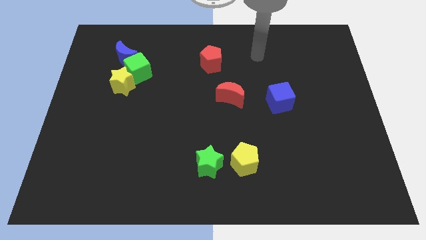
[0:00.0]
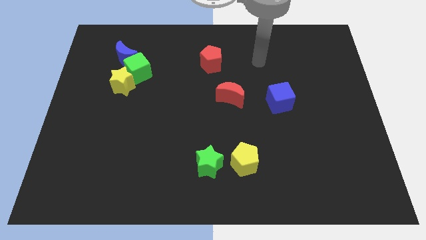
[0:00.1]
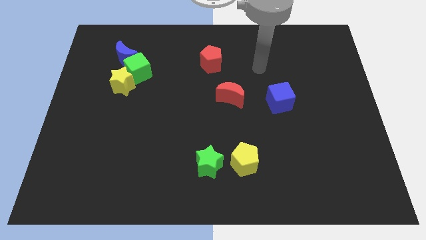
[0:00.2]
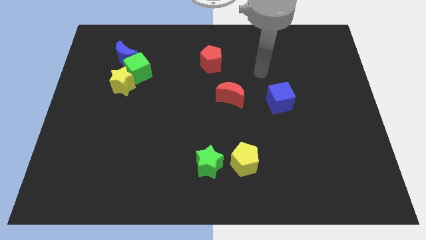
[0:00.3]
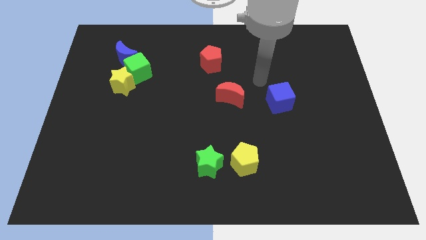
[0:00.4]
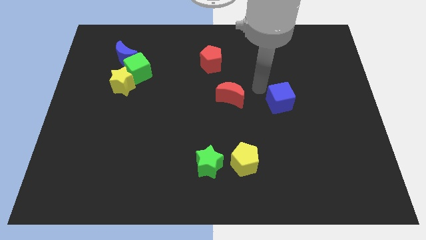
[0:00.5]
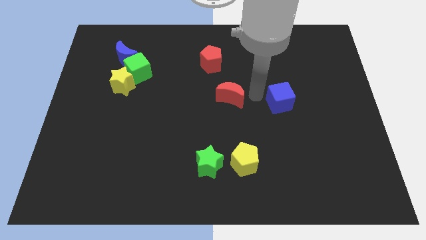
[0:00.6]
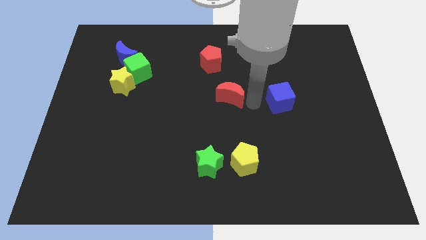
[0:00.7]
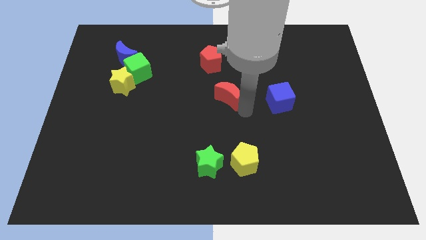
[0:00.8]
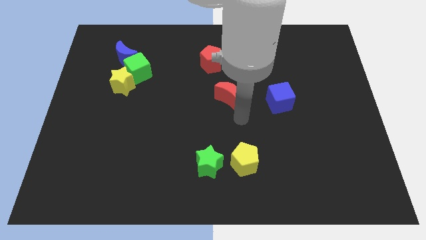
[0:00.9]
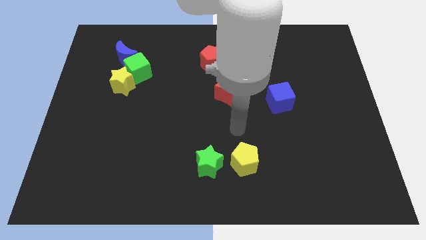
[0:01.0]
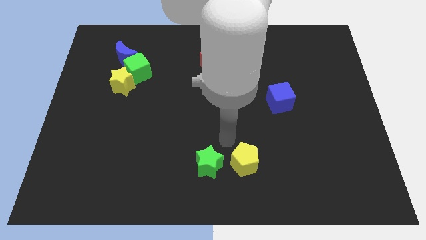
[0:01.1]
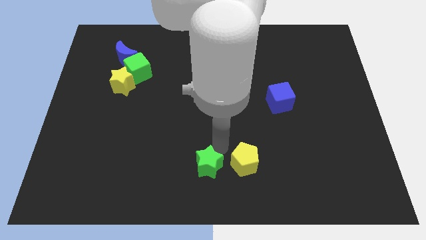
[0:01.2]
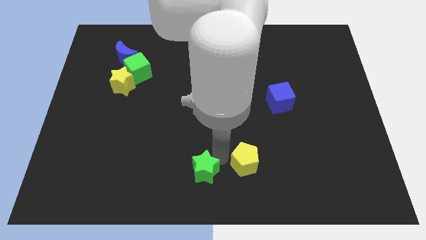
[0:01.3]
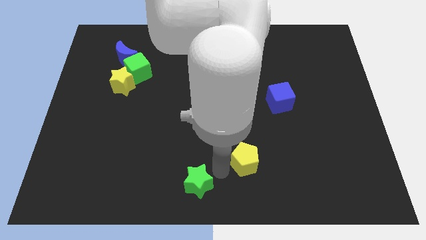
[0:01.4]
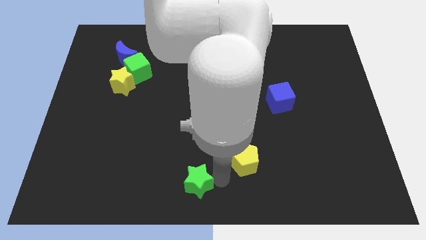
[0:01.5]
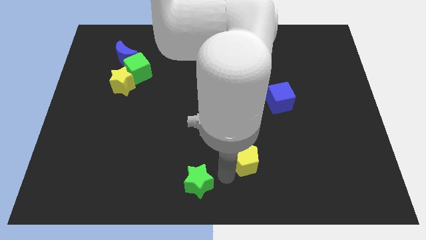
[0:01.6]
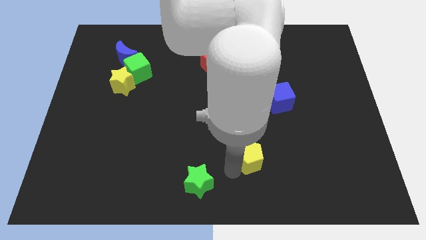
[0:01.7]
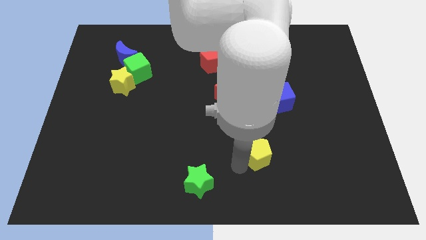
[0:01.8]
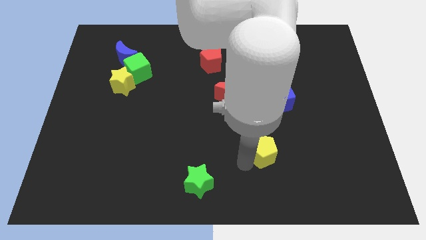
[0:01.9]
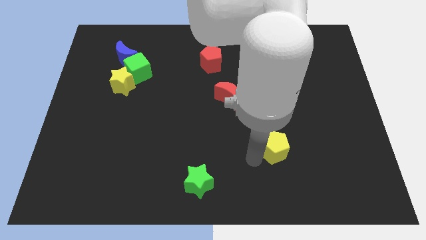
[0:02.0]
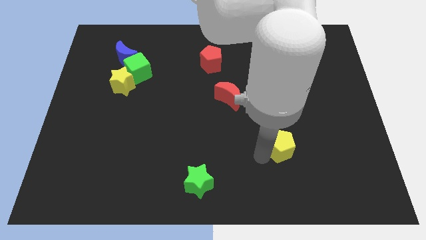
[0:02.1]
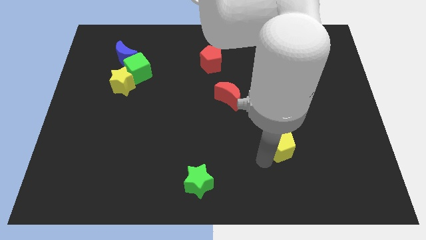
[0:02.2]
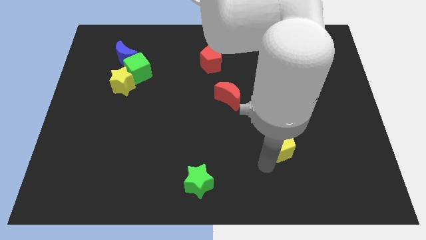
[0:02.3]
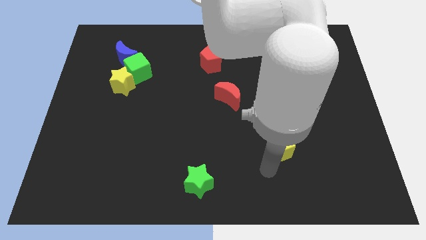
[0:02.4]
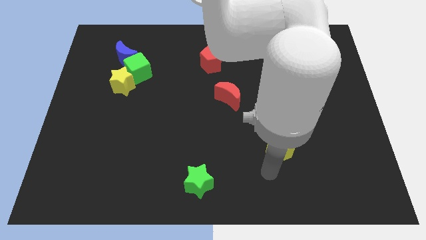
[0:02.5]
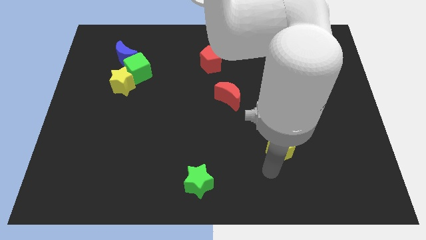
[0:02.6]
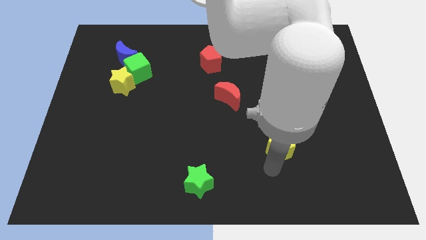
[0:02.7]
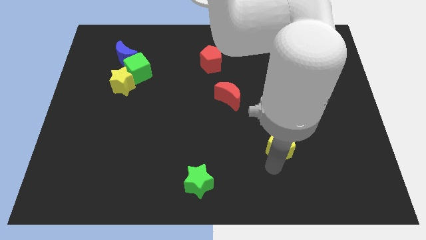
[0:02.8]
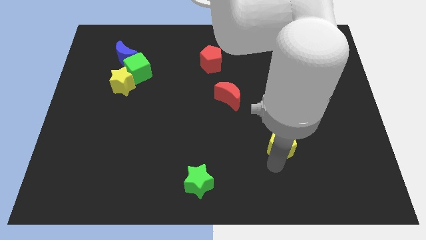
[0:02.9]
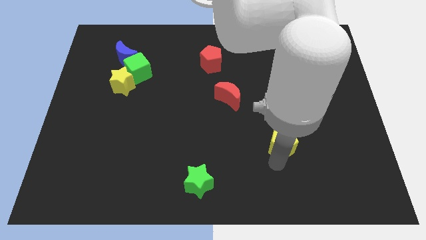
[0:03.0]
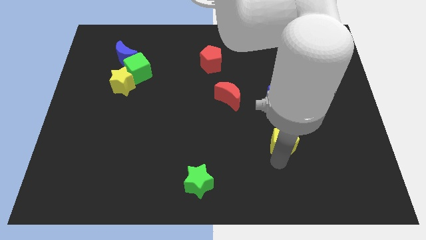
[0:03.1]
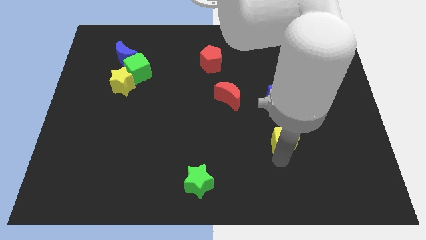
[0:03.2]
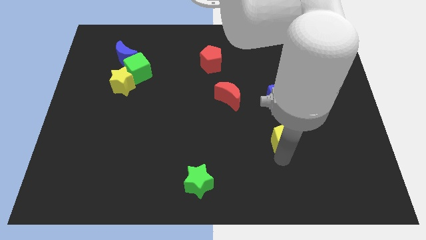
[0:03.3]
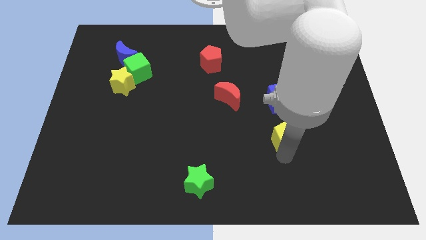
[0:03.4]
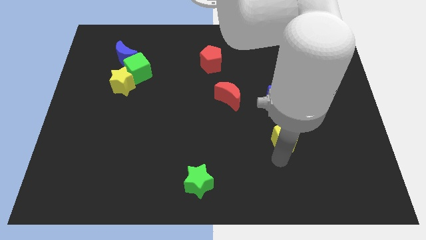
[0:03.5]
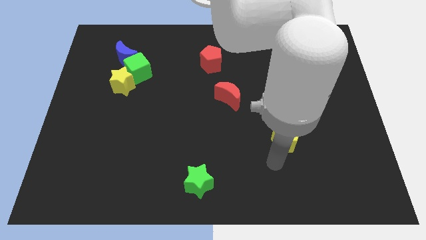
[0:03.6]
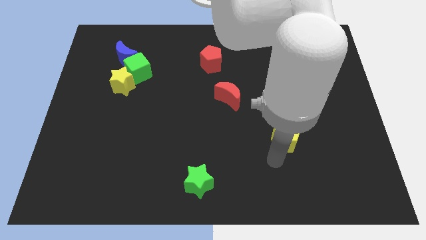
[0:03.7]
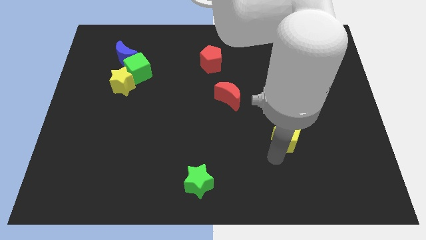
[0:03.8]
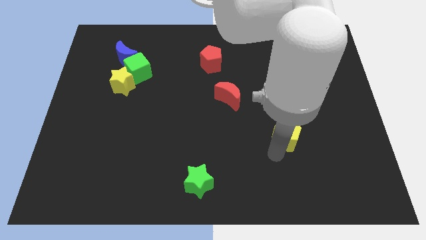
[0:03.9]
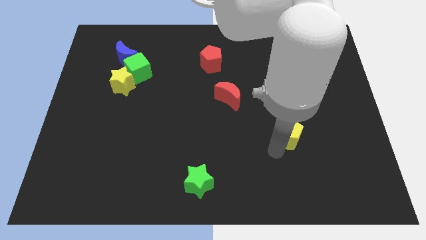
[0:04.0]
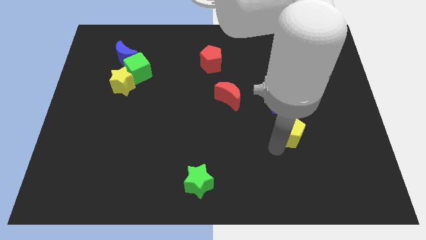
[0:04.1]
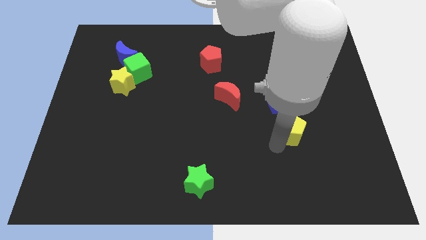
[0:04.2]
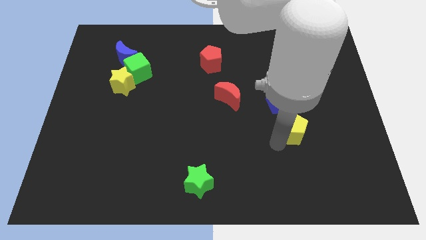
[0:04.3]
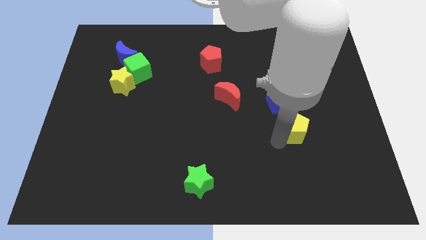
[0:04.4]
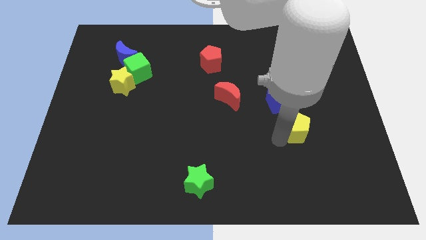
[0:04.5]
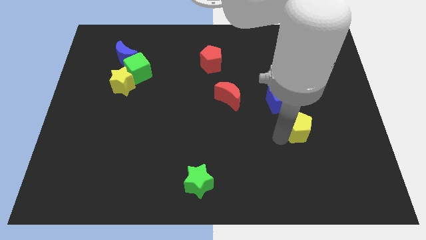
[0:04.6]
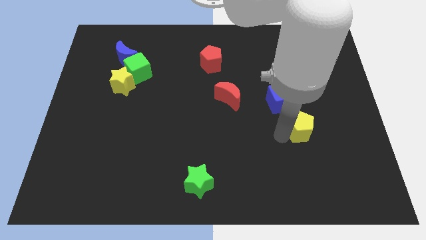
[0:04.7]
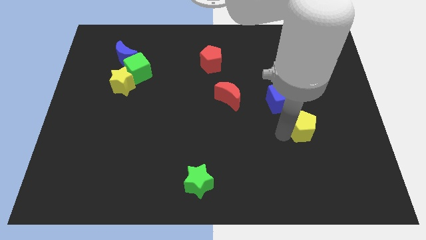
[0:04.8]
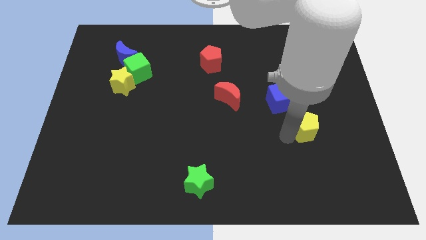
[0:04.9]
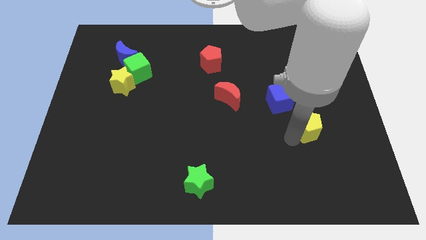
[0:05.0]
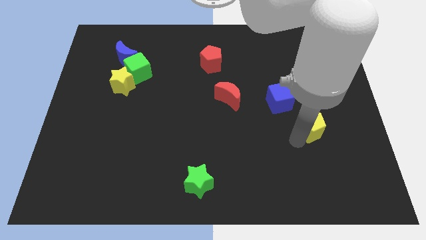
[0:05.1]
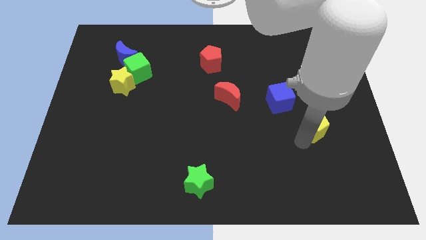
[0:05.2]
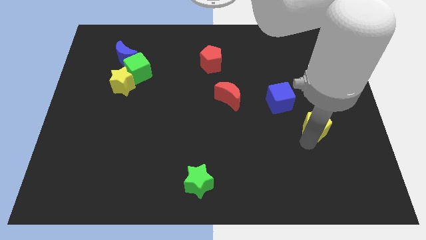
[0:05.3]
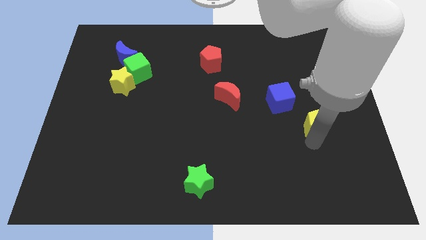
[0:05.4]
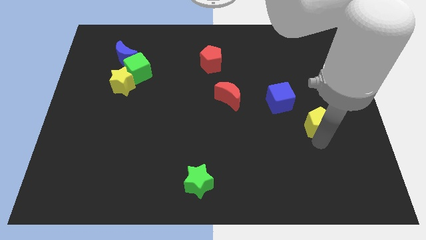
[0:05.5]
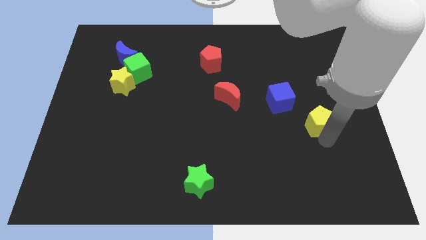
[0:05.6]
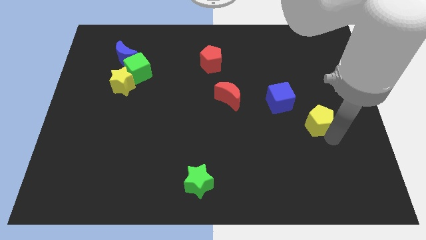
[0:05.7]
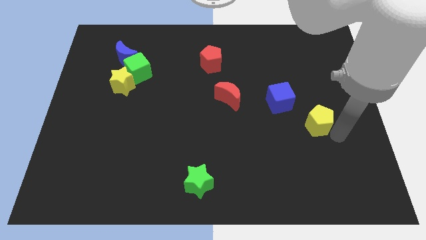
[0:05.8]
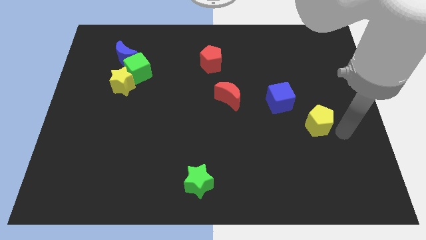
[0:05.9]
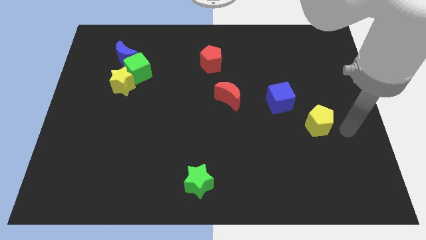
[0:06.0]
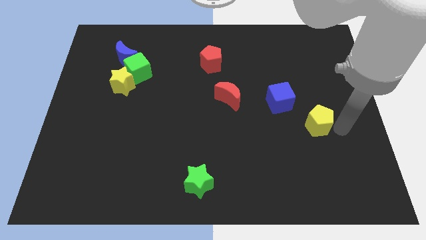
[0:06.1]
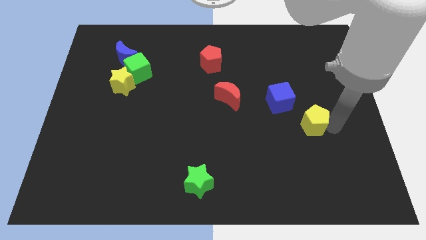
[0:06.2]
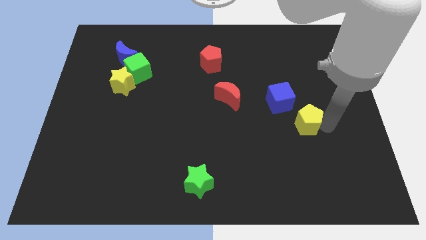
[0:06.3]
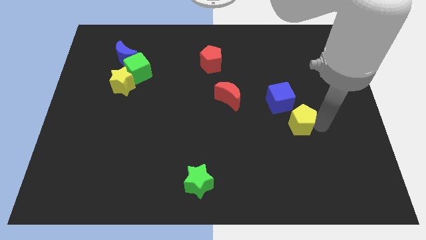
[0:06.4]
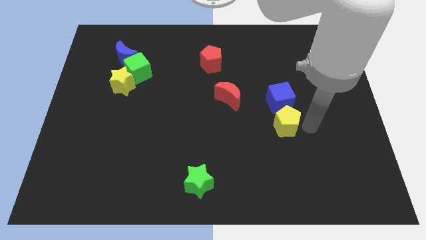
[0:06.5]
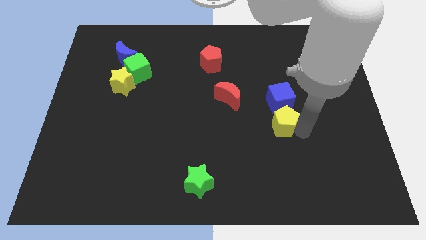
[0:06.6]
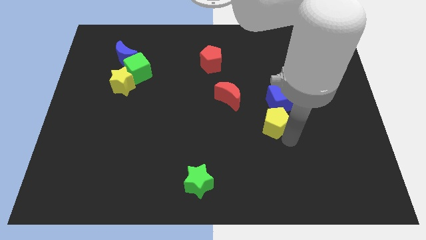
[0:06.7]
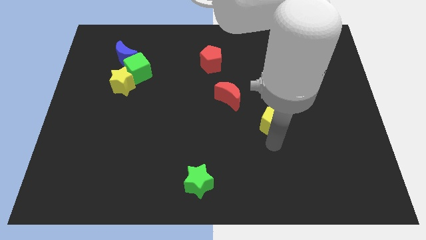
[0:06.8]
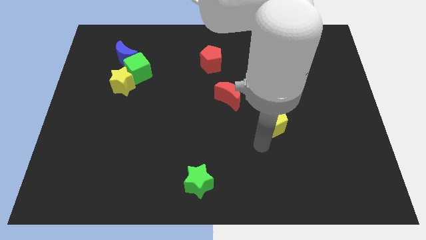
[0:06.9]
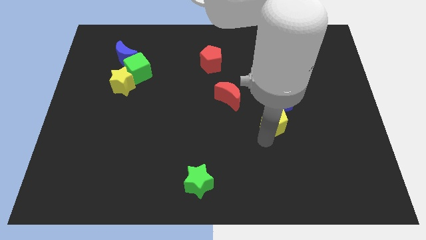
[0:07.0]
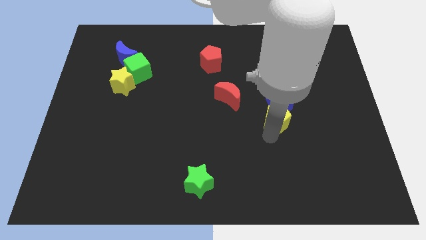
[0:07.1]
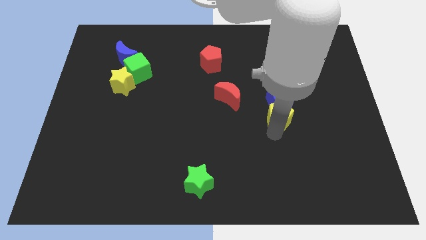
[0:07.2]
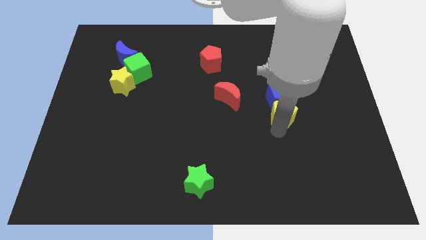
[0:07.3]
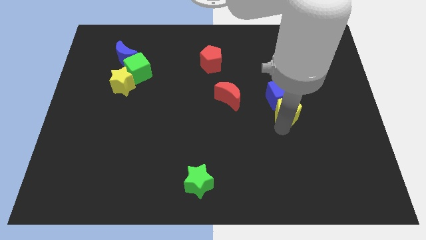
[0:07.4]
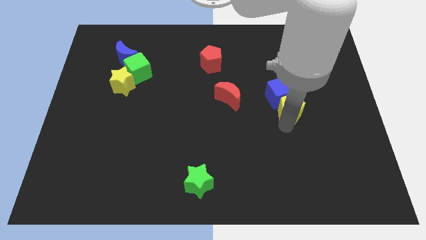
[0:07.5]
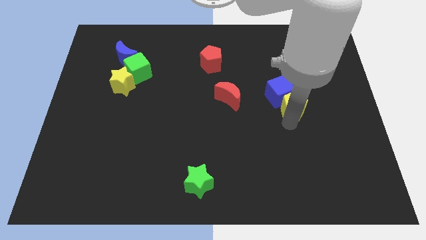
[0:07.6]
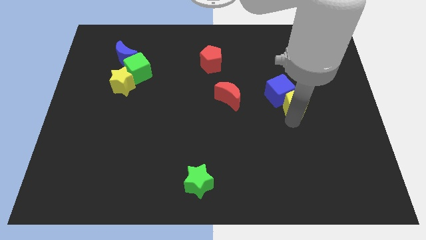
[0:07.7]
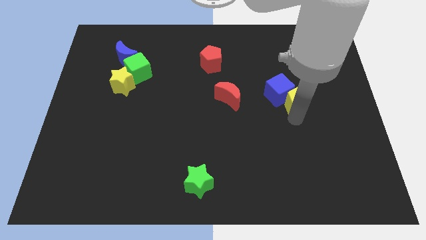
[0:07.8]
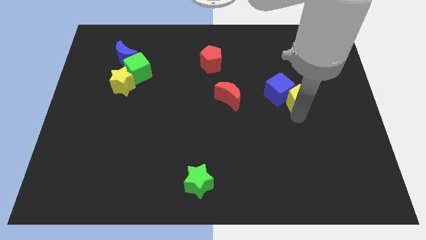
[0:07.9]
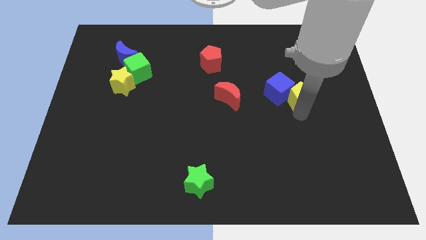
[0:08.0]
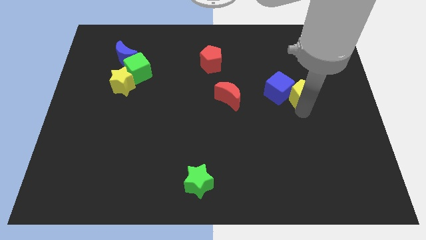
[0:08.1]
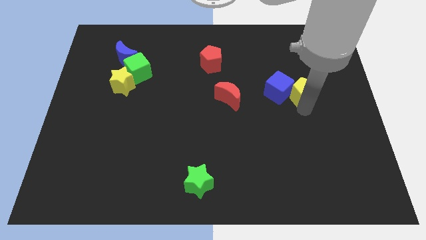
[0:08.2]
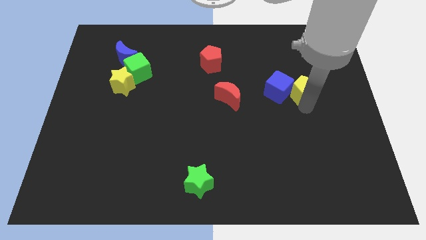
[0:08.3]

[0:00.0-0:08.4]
move the yellow pentagon diagonally up and to the right of the blue cube
